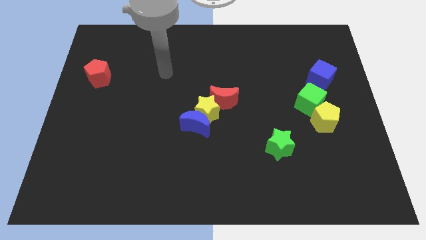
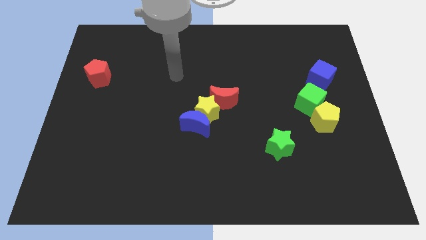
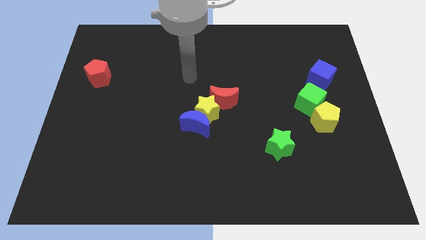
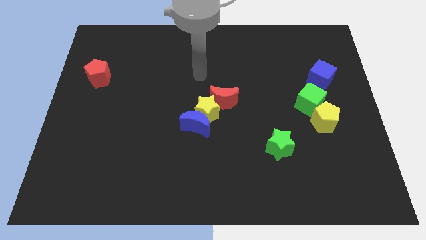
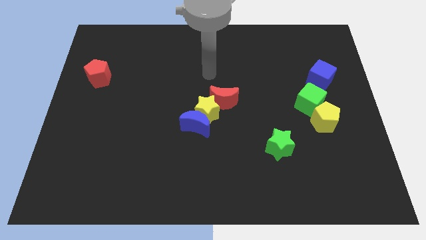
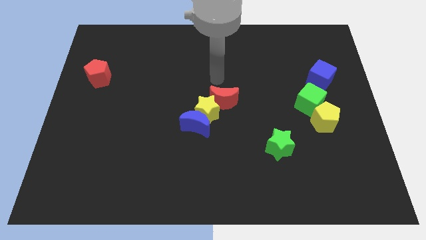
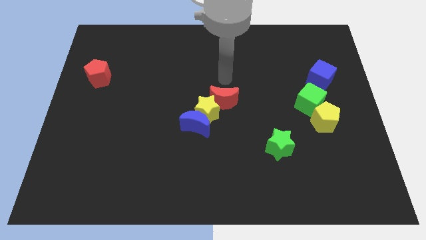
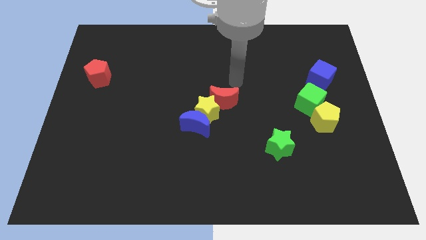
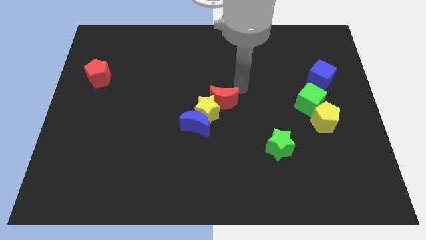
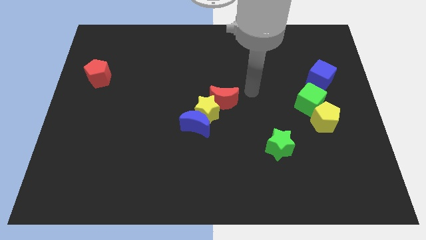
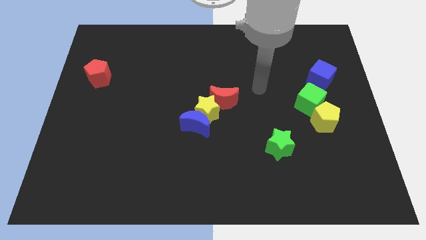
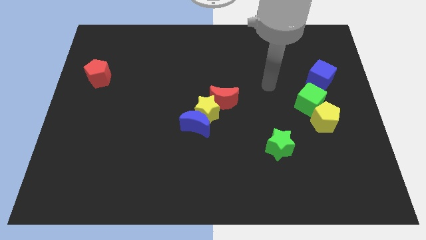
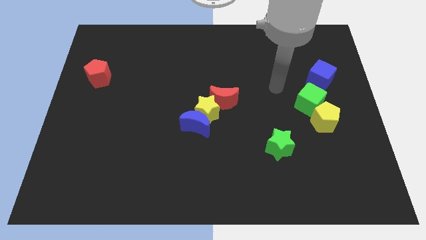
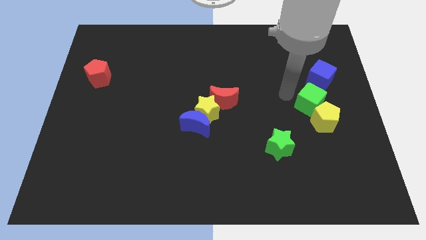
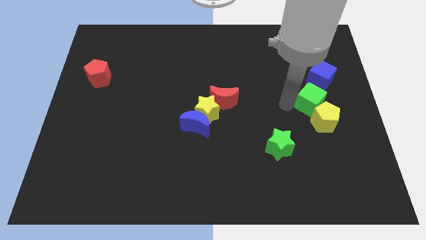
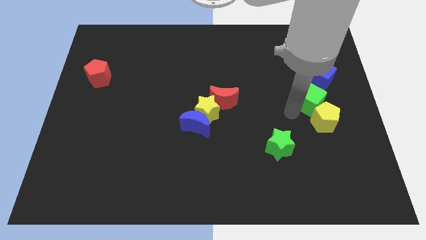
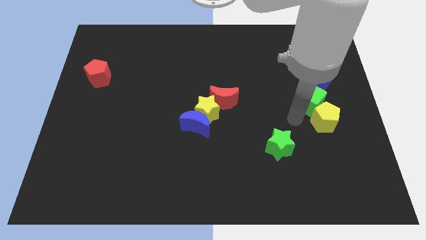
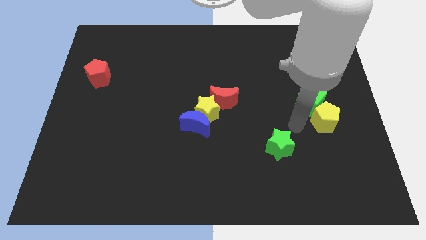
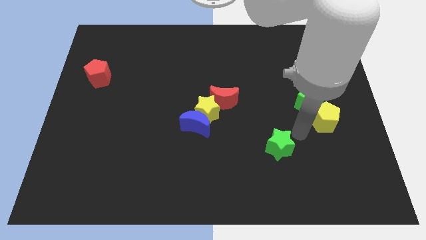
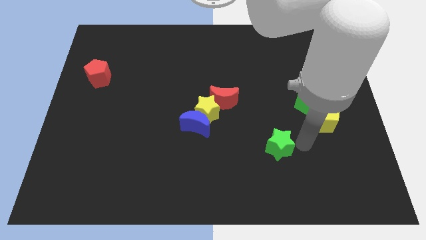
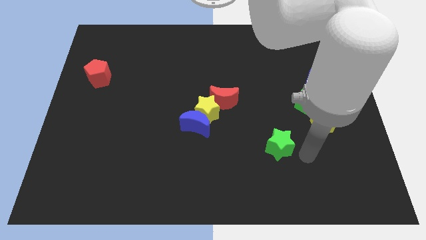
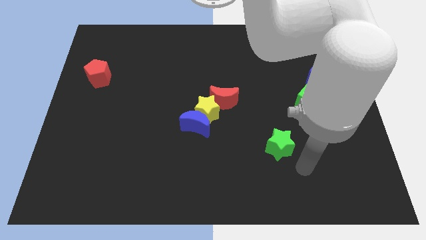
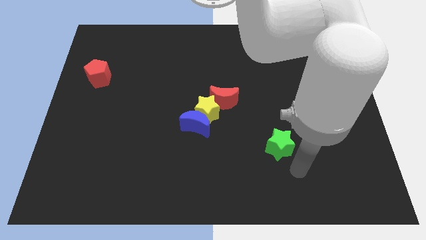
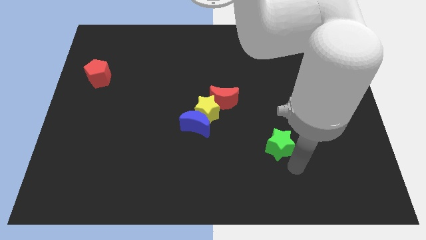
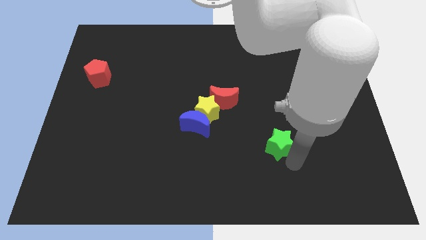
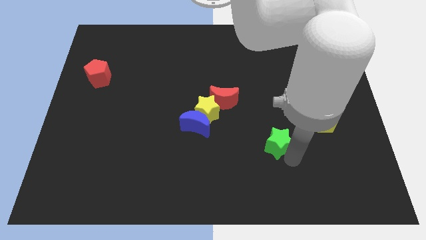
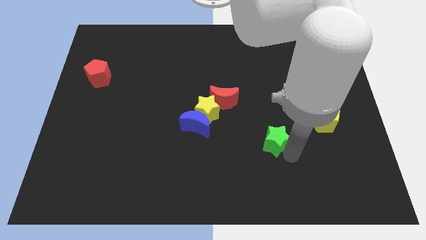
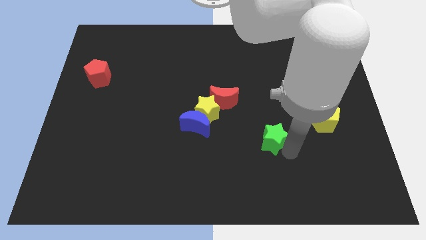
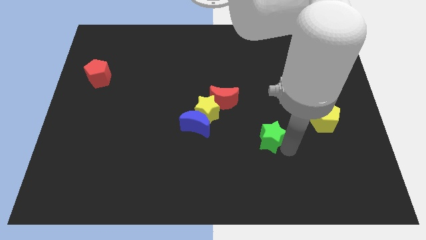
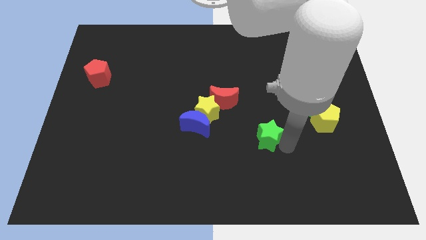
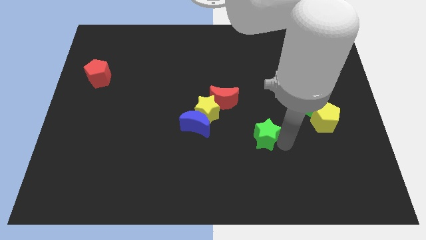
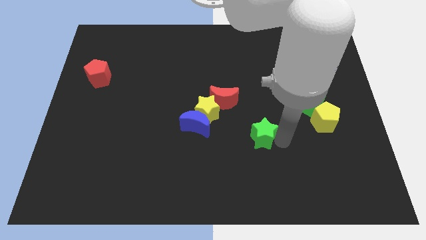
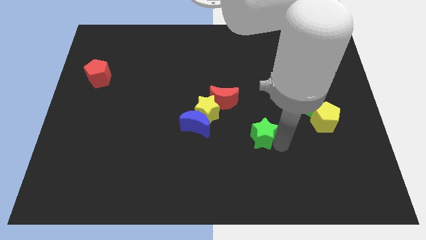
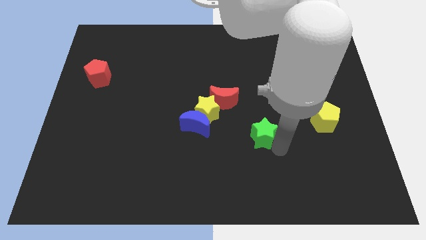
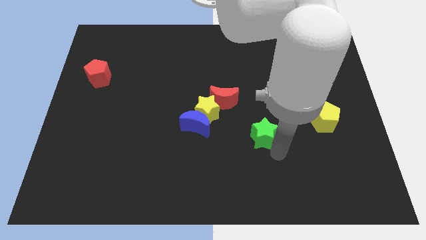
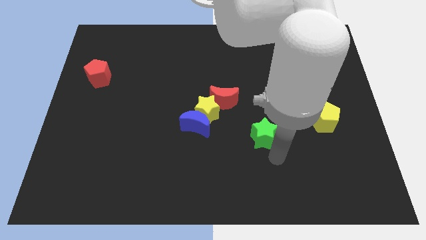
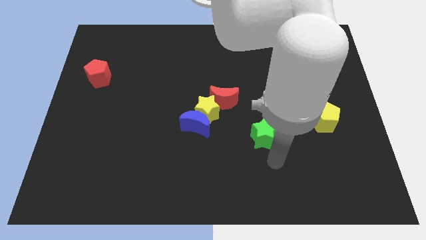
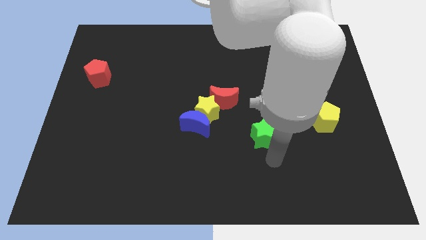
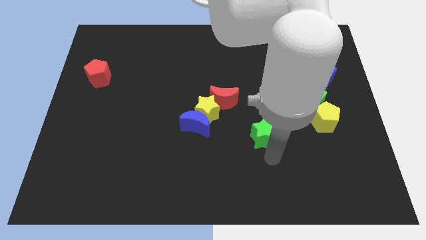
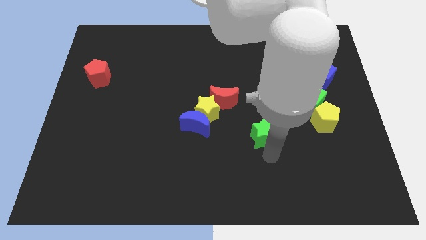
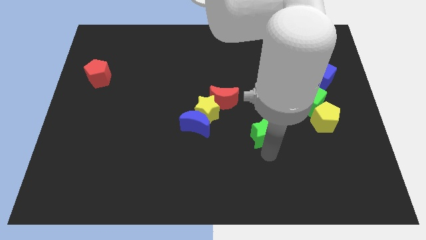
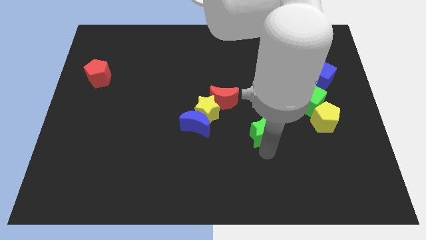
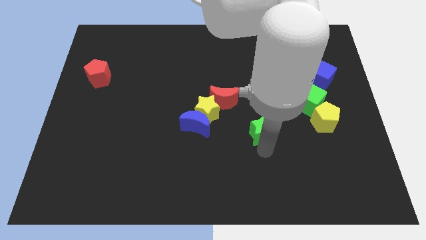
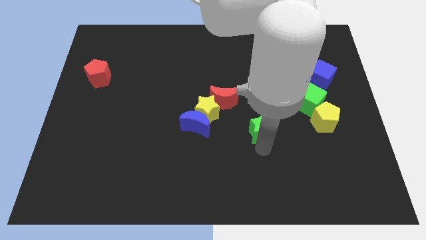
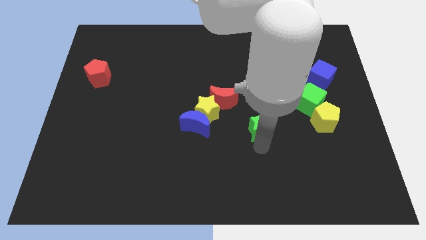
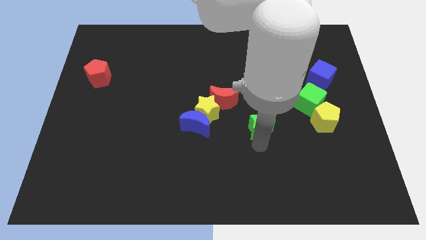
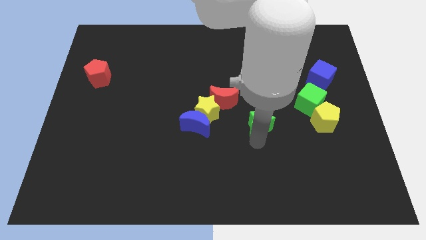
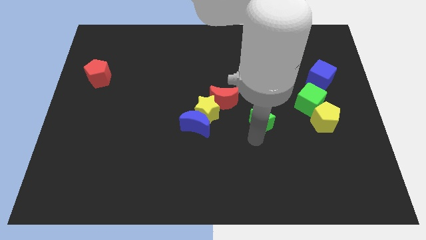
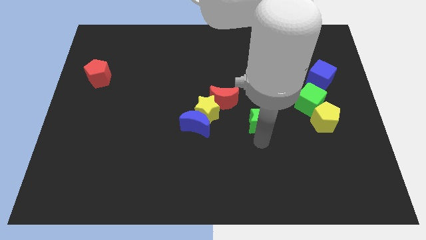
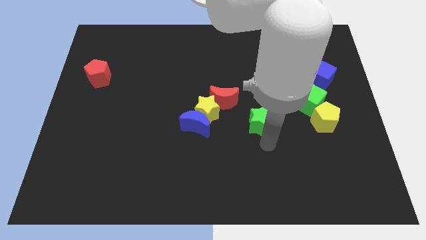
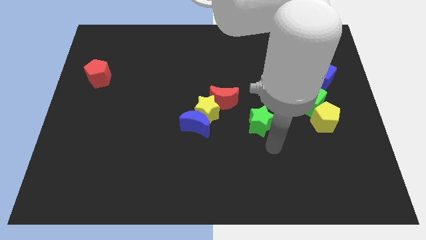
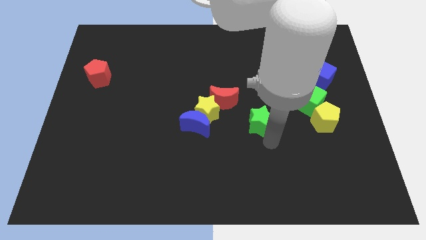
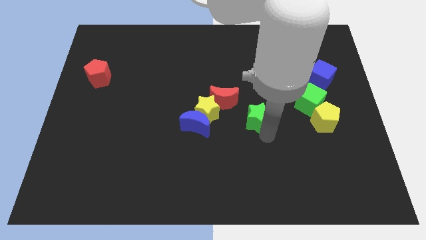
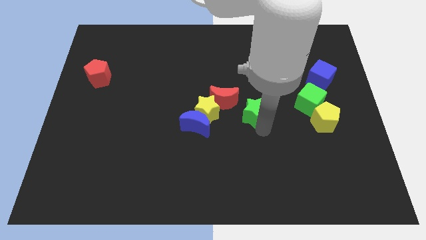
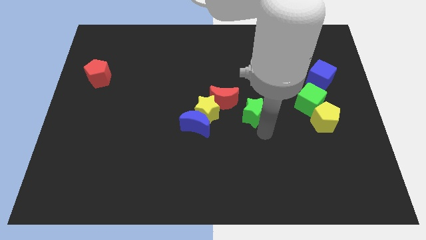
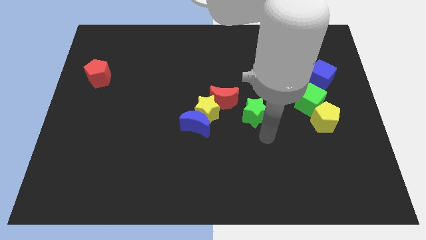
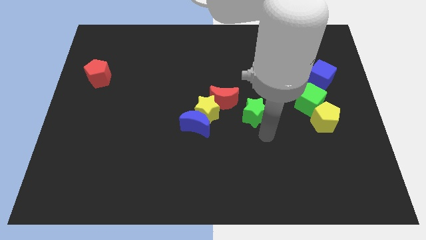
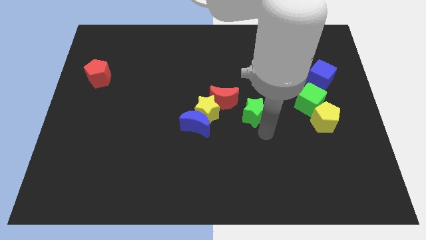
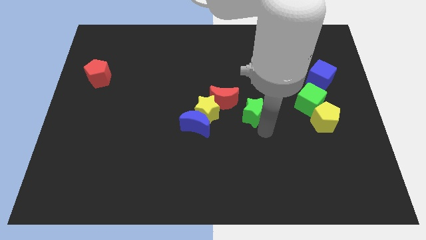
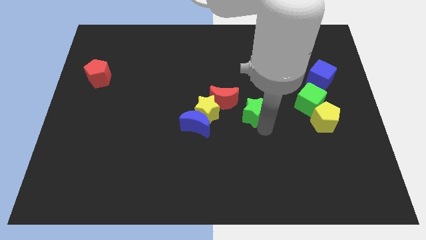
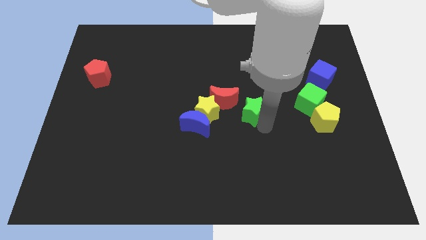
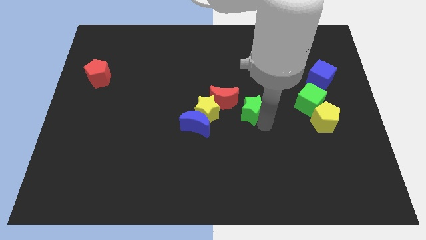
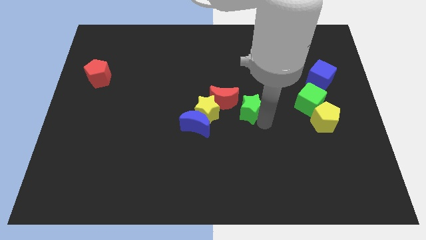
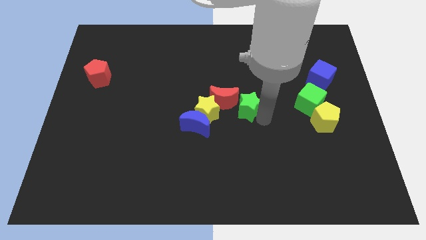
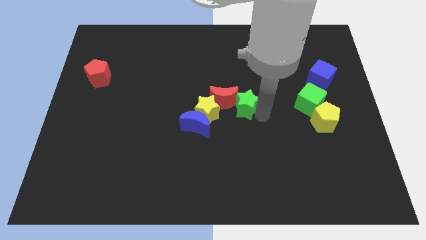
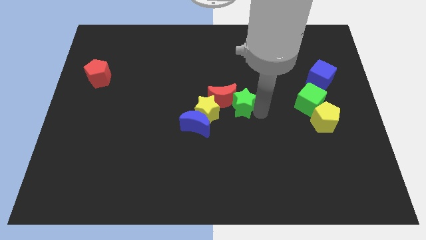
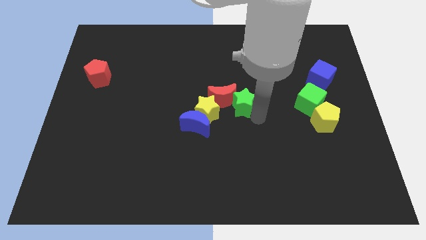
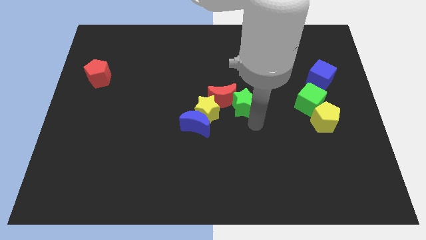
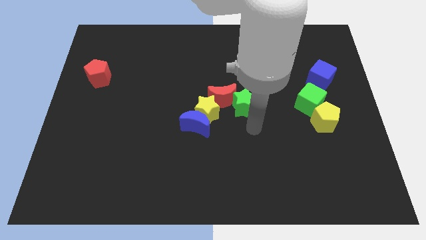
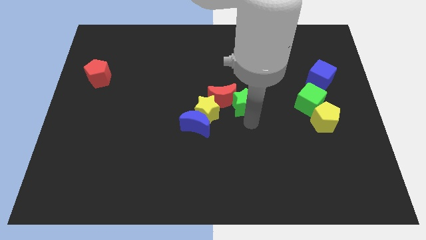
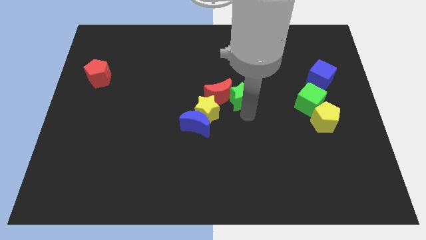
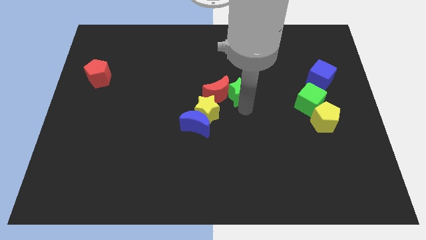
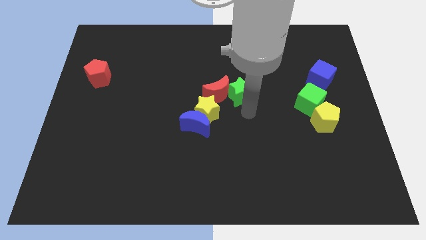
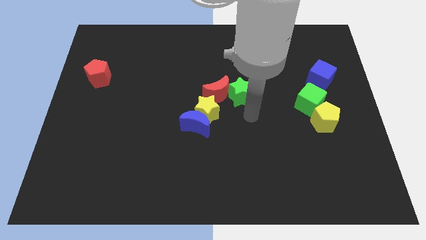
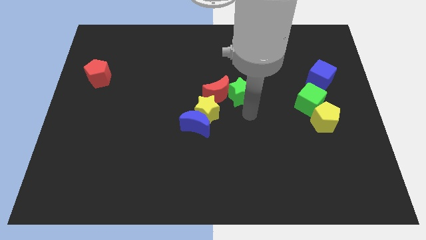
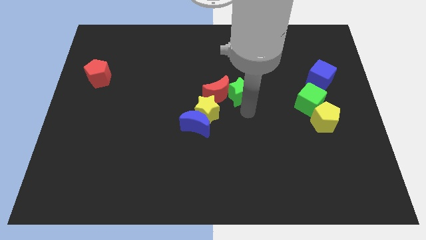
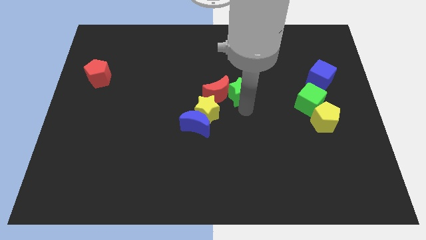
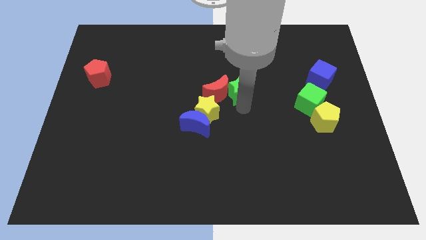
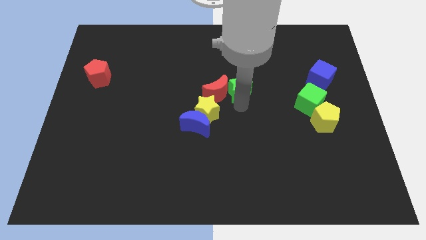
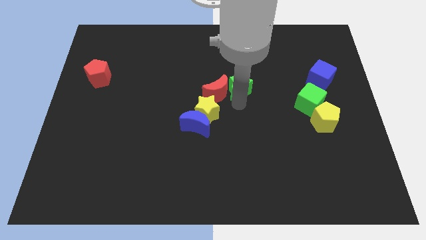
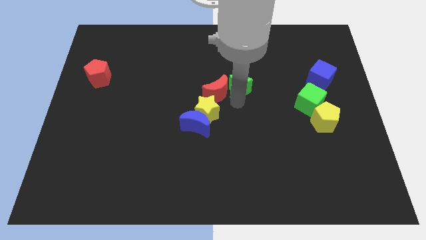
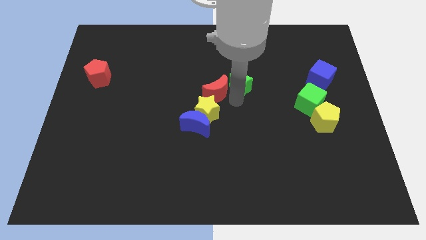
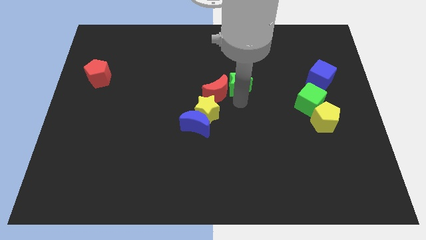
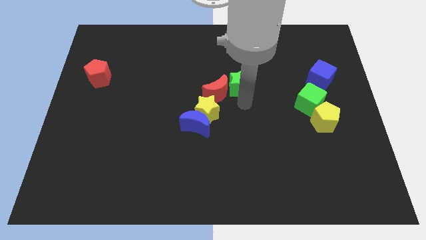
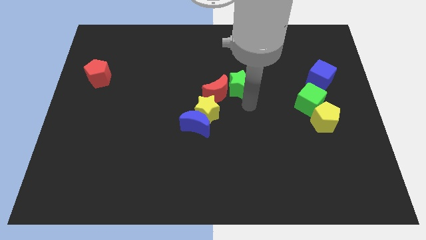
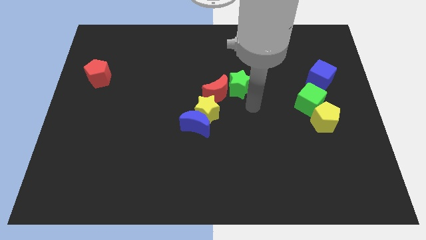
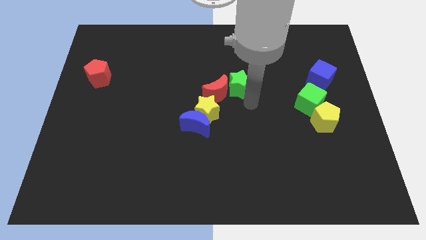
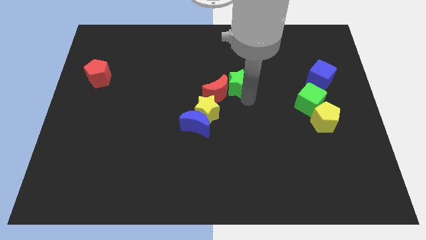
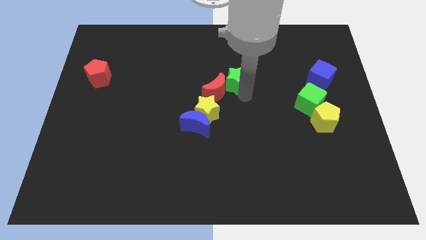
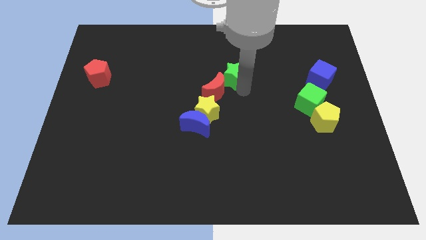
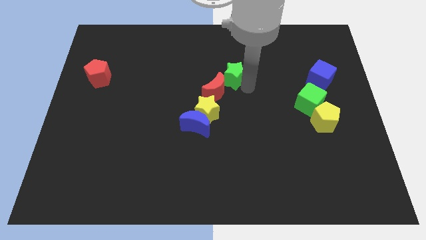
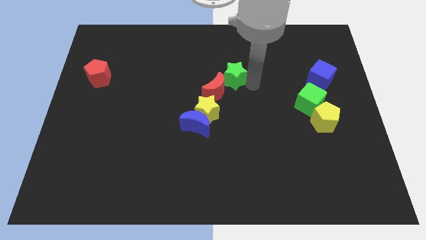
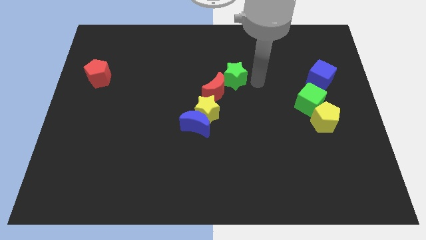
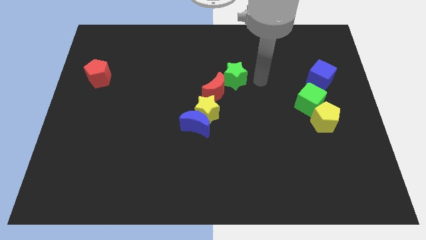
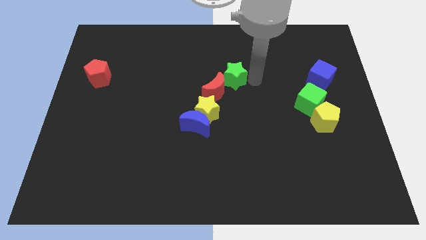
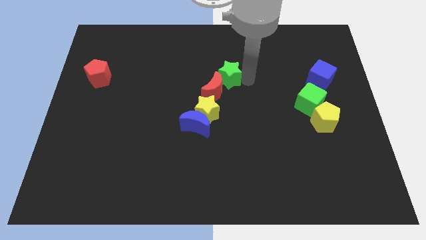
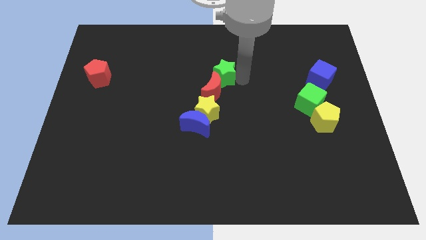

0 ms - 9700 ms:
slide the green star upwards and to the left
